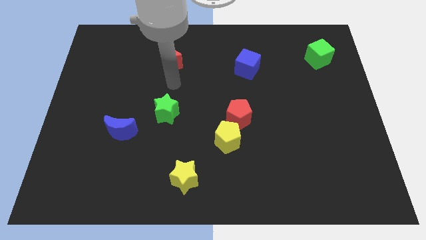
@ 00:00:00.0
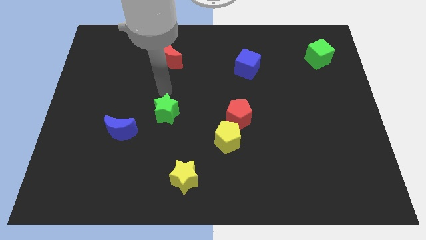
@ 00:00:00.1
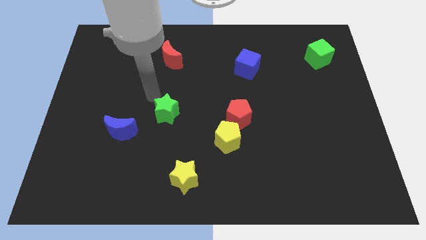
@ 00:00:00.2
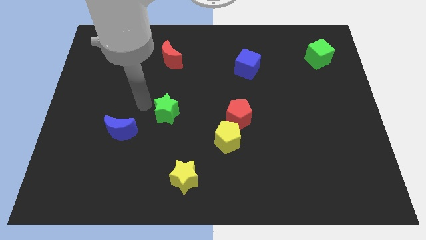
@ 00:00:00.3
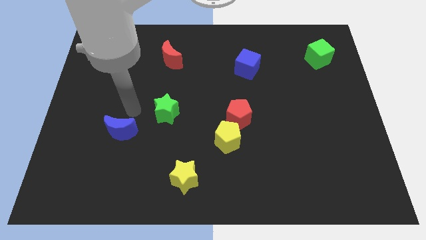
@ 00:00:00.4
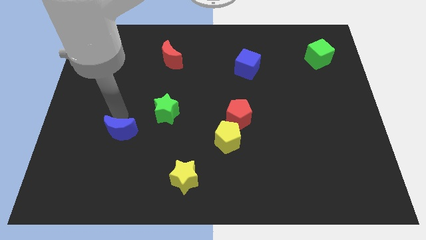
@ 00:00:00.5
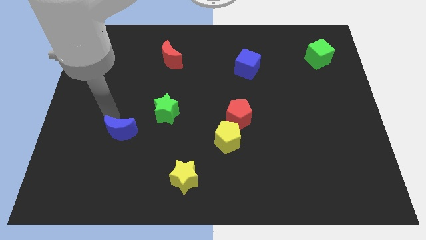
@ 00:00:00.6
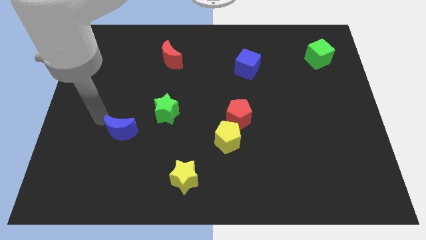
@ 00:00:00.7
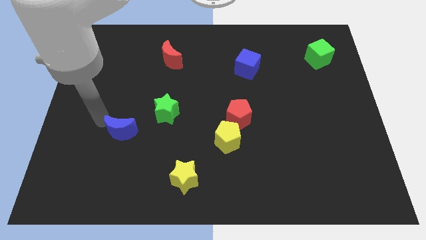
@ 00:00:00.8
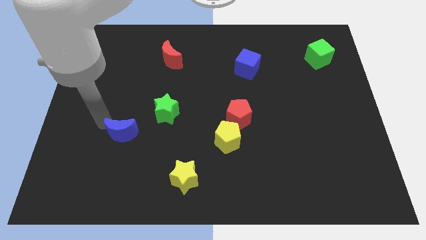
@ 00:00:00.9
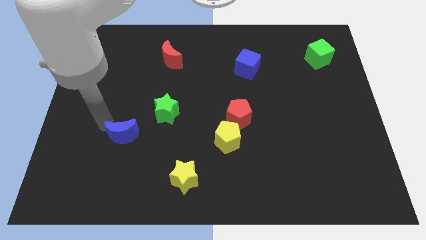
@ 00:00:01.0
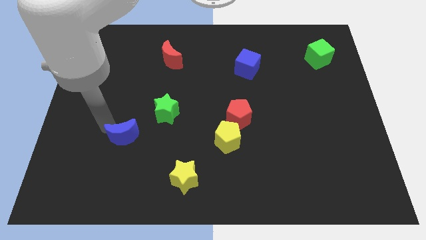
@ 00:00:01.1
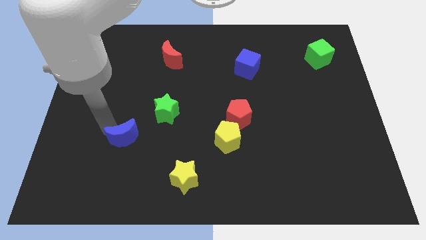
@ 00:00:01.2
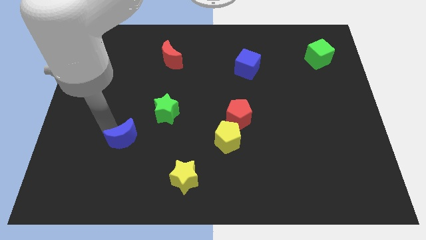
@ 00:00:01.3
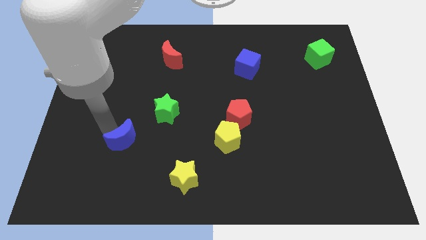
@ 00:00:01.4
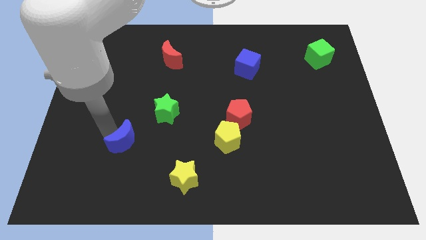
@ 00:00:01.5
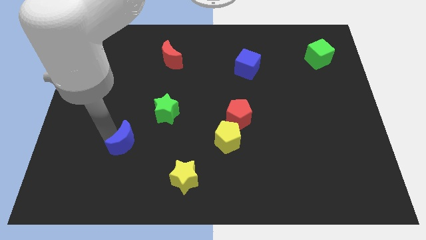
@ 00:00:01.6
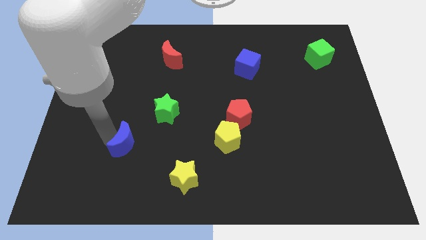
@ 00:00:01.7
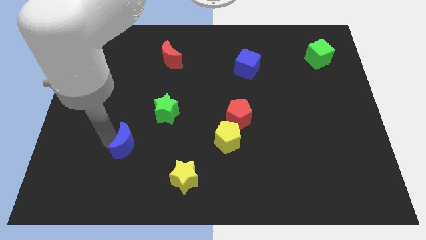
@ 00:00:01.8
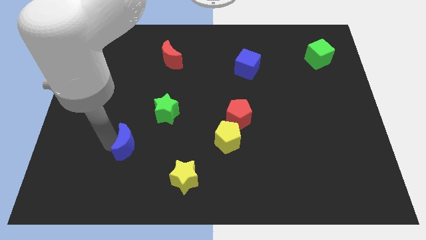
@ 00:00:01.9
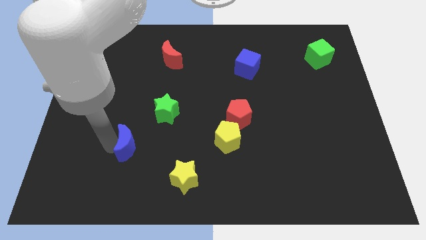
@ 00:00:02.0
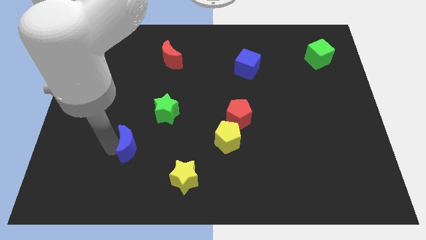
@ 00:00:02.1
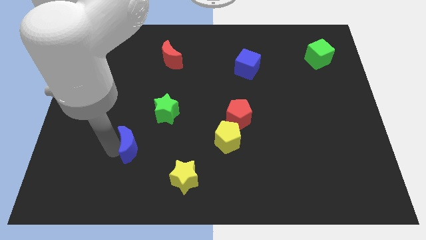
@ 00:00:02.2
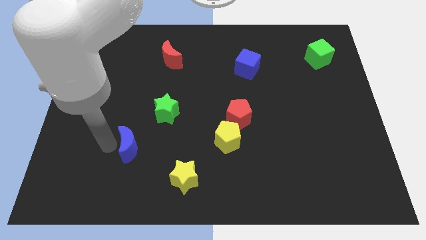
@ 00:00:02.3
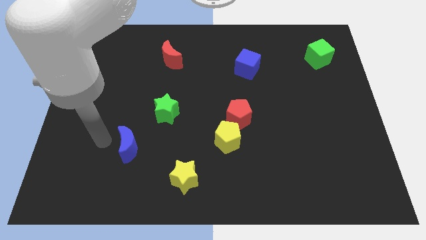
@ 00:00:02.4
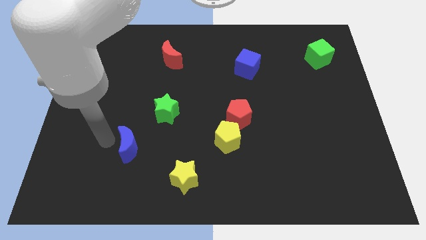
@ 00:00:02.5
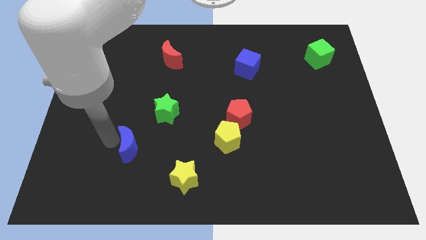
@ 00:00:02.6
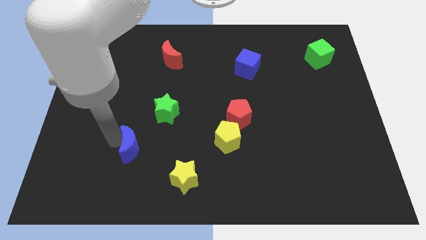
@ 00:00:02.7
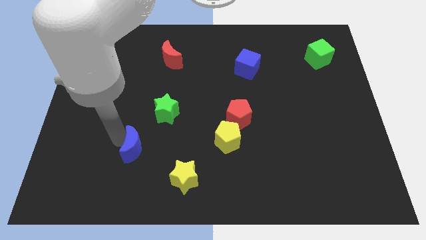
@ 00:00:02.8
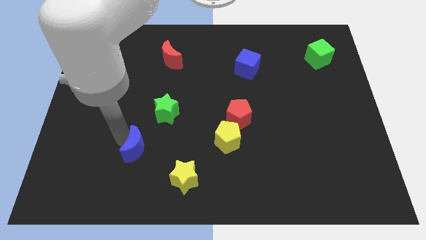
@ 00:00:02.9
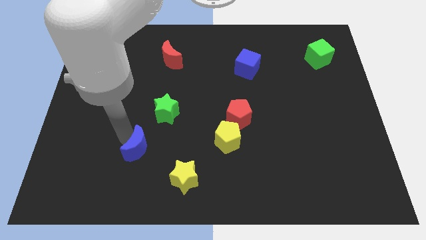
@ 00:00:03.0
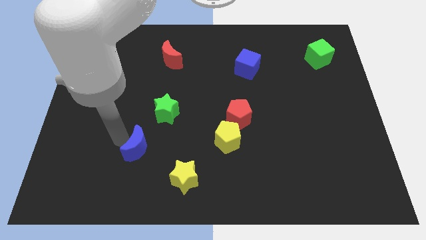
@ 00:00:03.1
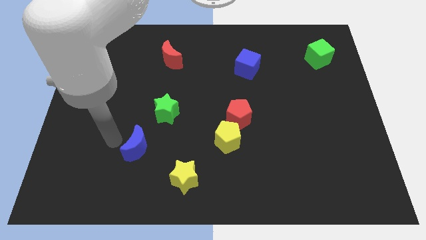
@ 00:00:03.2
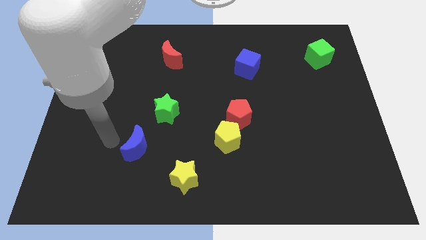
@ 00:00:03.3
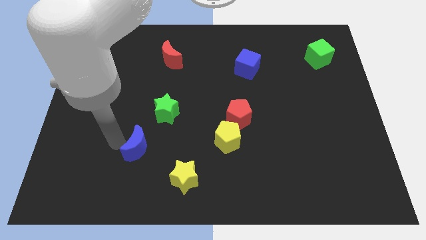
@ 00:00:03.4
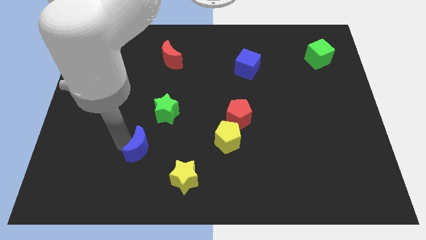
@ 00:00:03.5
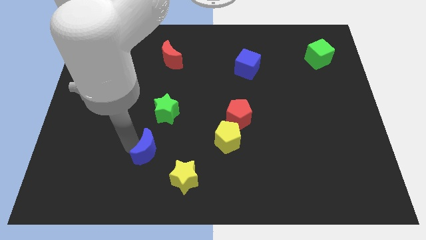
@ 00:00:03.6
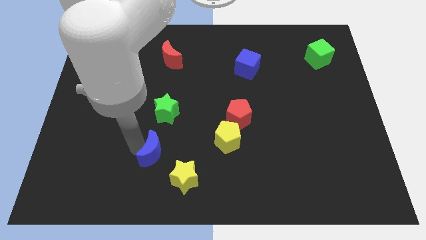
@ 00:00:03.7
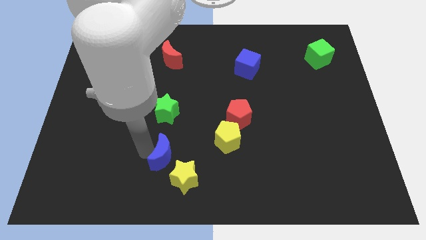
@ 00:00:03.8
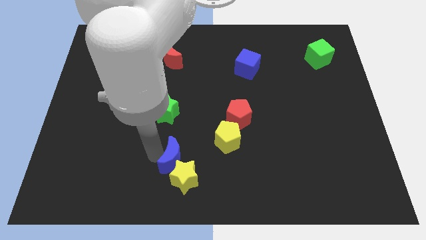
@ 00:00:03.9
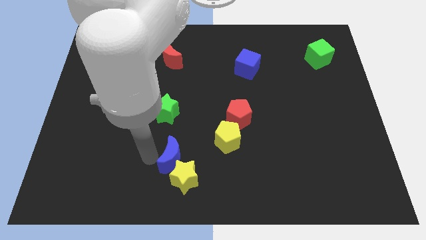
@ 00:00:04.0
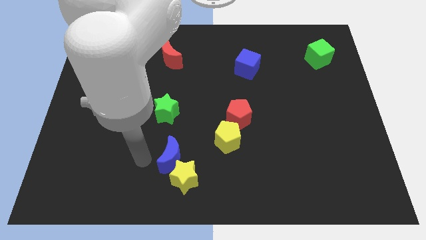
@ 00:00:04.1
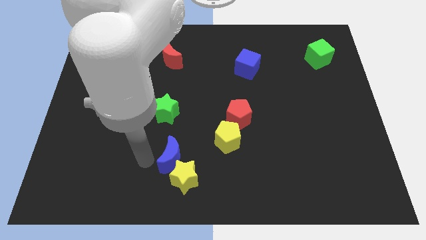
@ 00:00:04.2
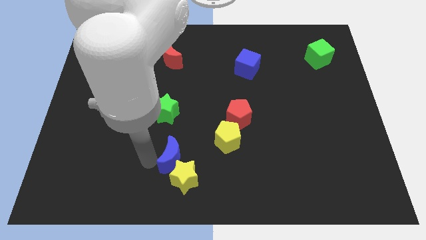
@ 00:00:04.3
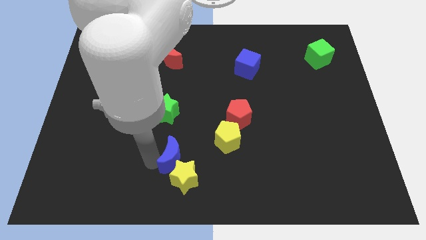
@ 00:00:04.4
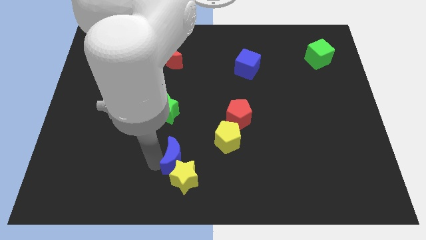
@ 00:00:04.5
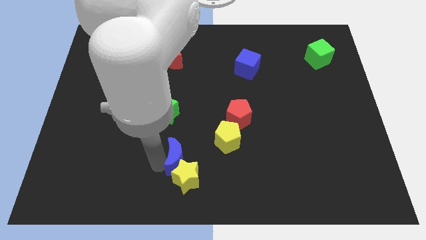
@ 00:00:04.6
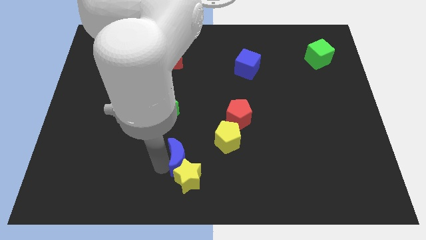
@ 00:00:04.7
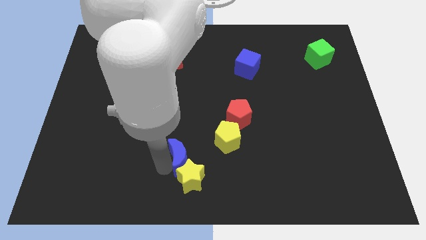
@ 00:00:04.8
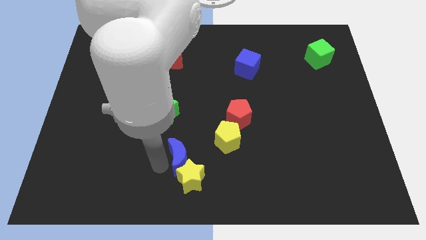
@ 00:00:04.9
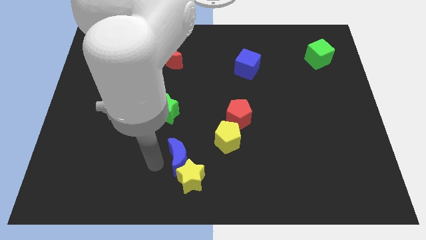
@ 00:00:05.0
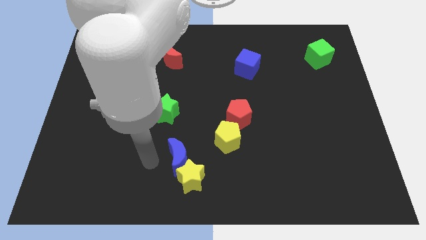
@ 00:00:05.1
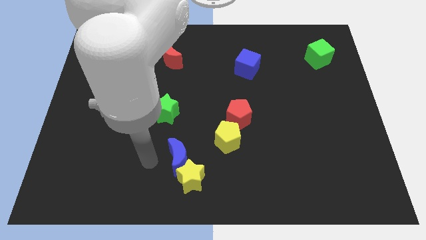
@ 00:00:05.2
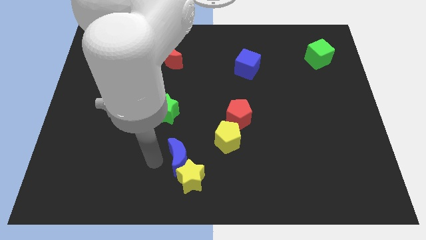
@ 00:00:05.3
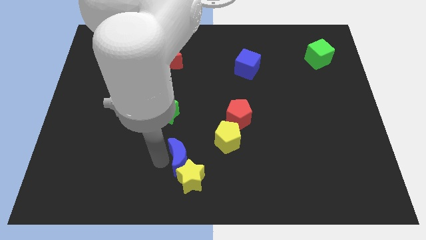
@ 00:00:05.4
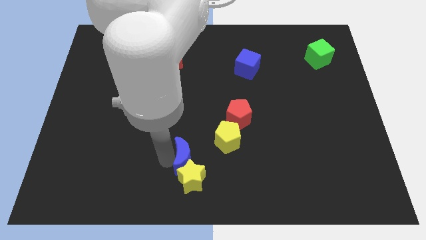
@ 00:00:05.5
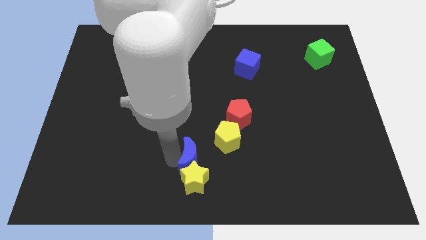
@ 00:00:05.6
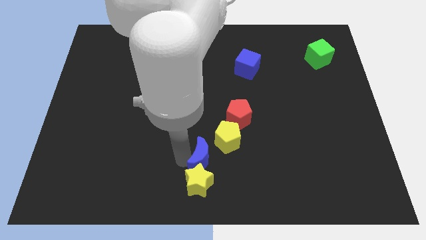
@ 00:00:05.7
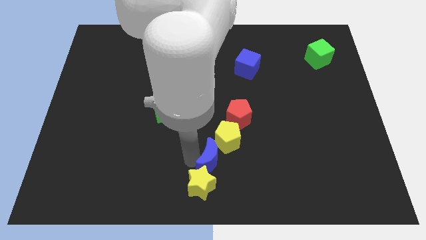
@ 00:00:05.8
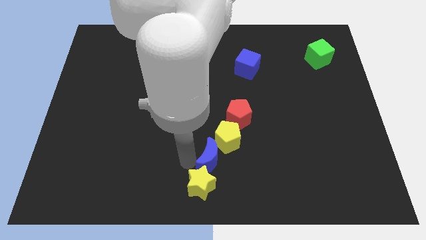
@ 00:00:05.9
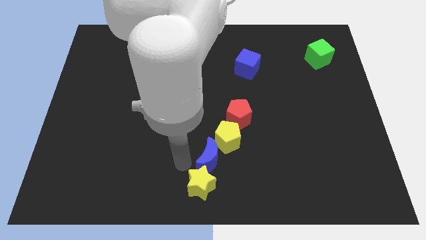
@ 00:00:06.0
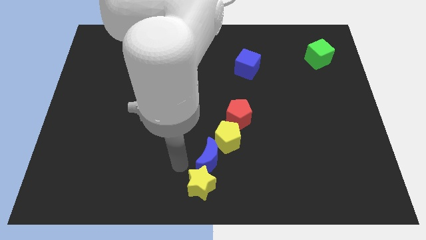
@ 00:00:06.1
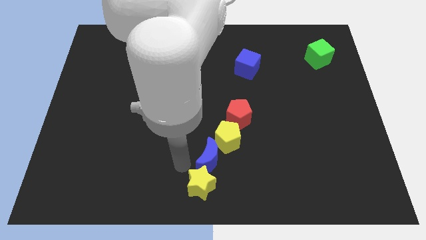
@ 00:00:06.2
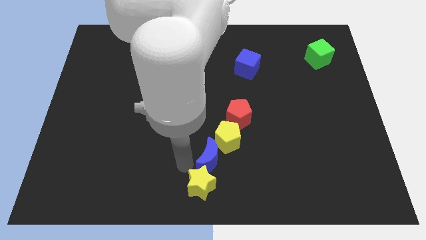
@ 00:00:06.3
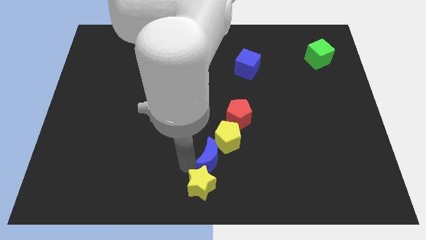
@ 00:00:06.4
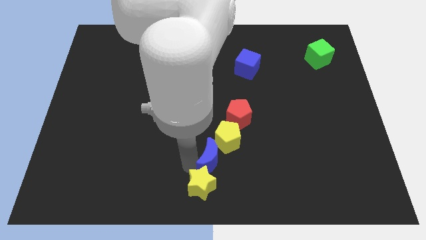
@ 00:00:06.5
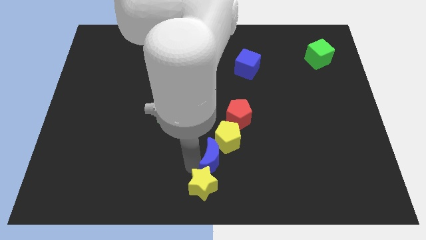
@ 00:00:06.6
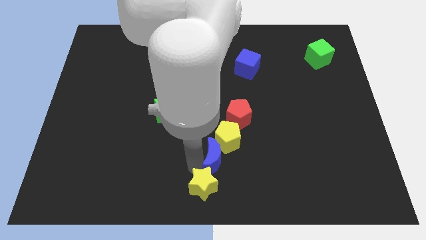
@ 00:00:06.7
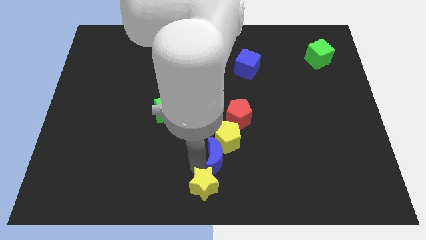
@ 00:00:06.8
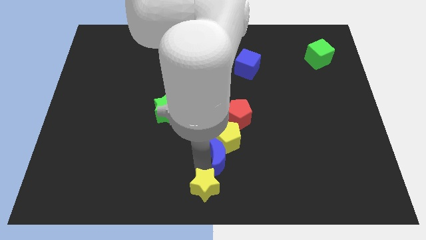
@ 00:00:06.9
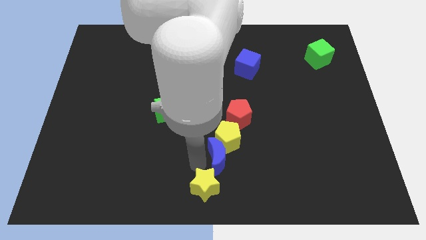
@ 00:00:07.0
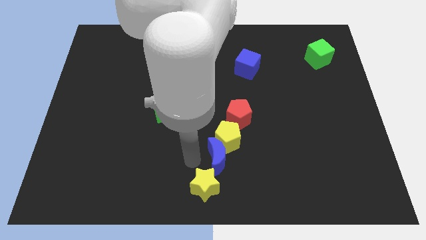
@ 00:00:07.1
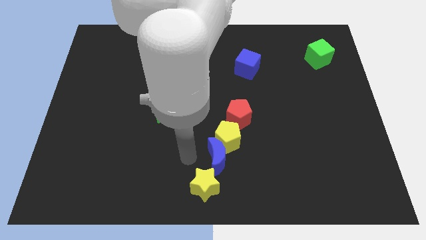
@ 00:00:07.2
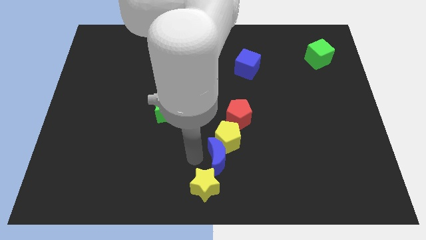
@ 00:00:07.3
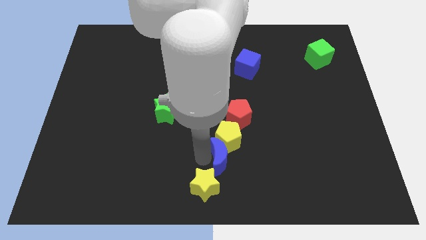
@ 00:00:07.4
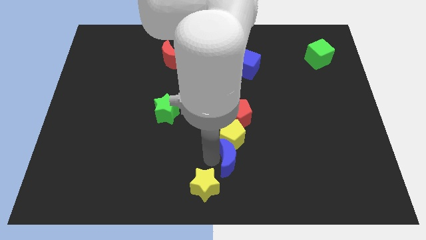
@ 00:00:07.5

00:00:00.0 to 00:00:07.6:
move the blue moon diagonally down and to the right of the yellow pentagon
